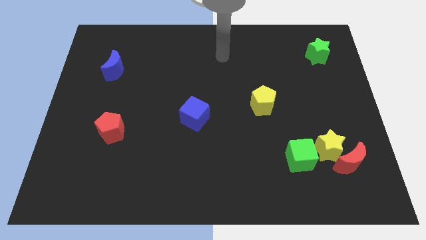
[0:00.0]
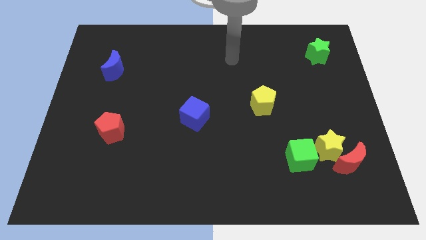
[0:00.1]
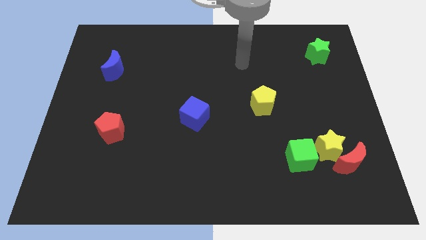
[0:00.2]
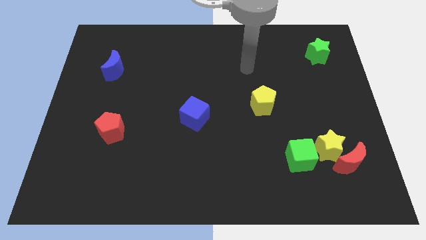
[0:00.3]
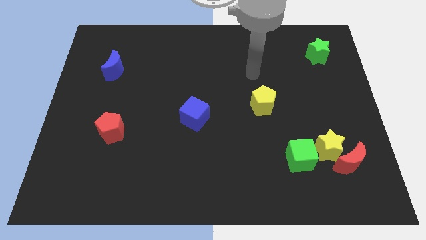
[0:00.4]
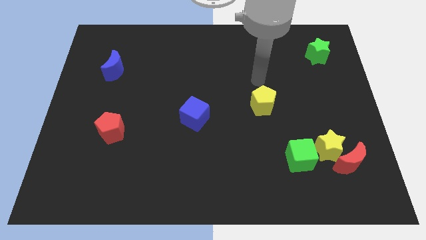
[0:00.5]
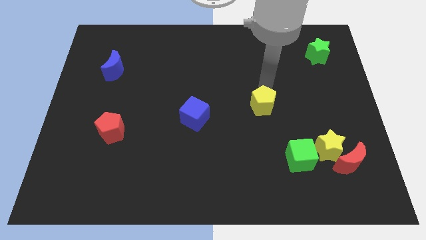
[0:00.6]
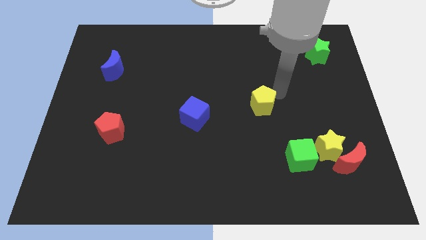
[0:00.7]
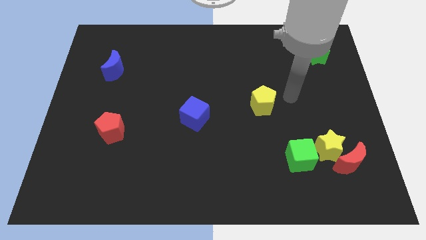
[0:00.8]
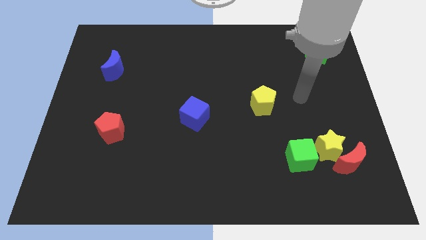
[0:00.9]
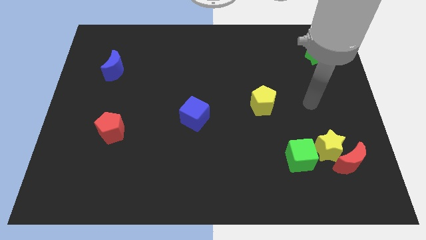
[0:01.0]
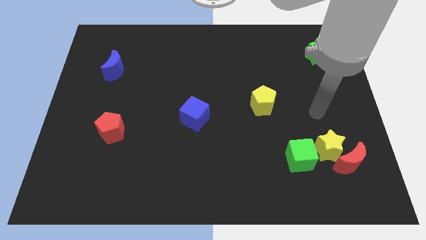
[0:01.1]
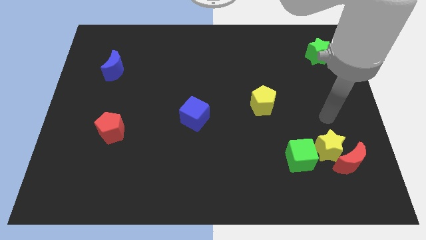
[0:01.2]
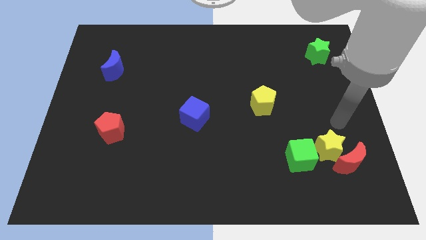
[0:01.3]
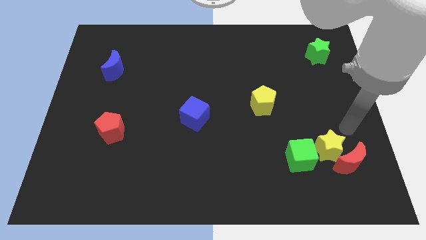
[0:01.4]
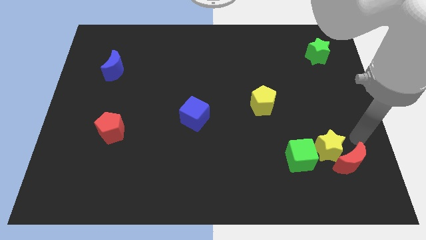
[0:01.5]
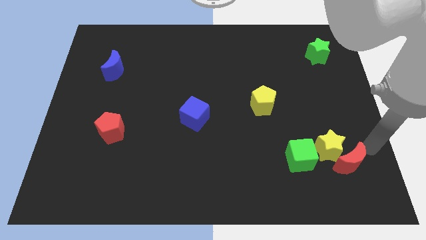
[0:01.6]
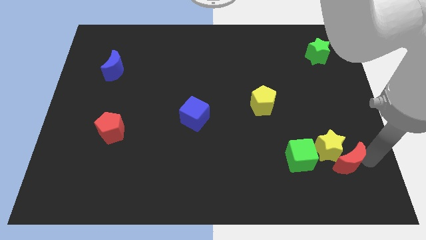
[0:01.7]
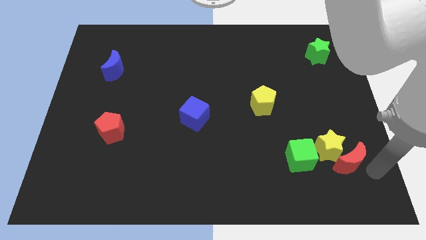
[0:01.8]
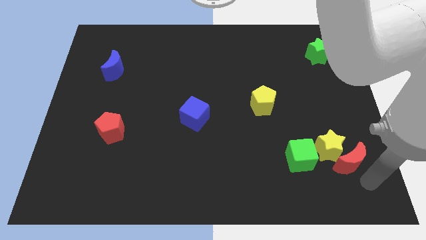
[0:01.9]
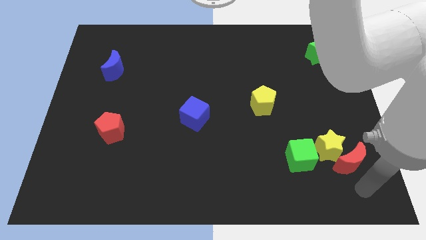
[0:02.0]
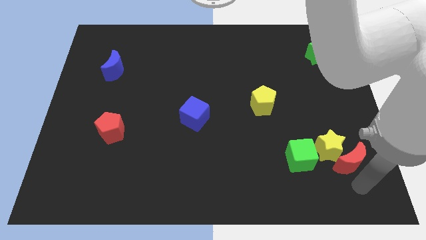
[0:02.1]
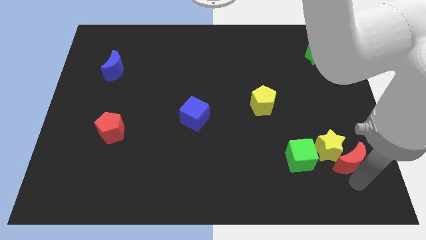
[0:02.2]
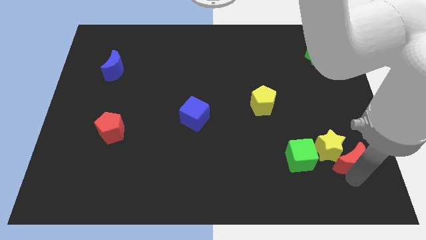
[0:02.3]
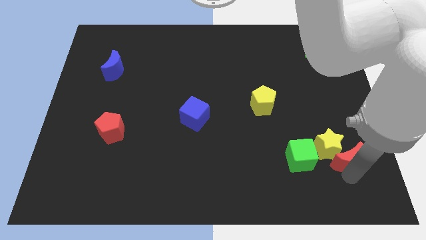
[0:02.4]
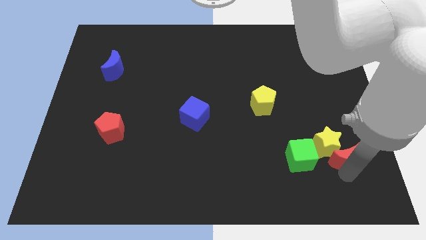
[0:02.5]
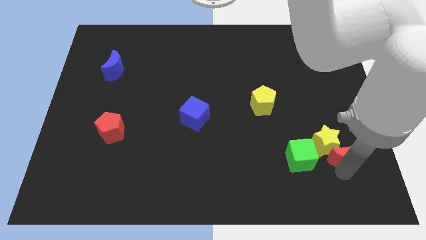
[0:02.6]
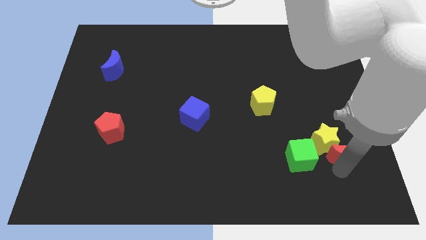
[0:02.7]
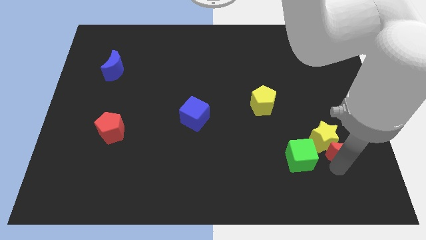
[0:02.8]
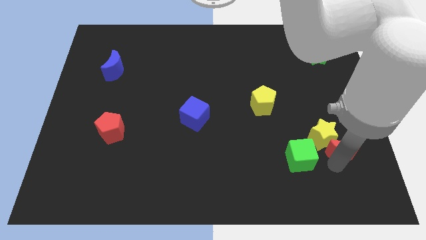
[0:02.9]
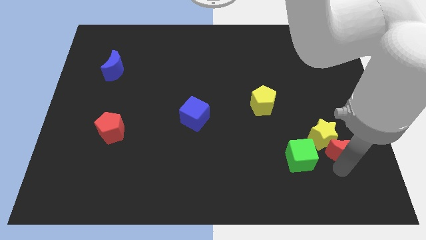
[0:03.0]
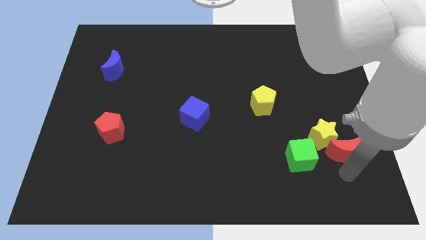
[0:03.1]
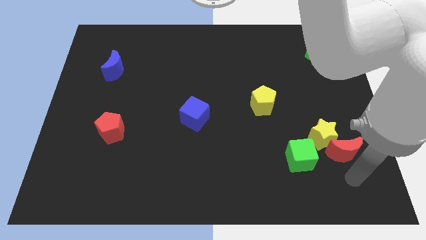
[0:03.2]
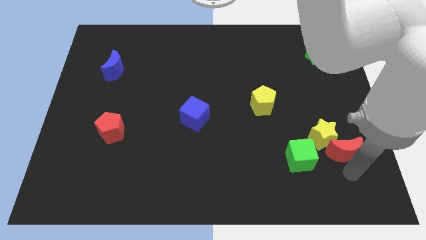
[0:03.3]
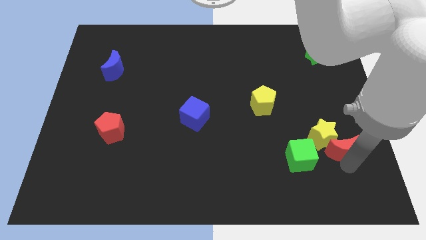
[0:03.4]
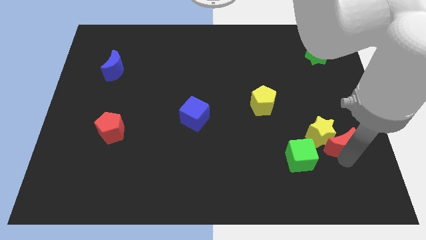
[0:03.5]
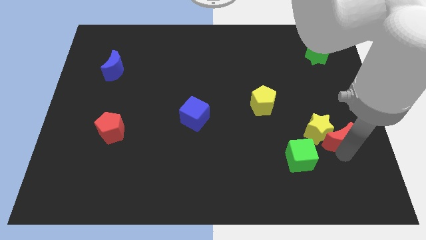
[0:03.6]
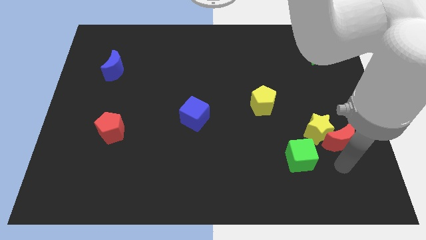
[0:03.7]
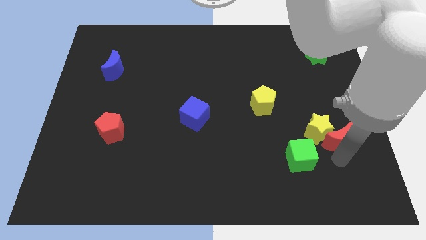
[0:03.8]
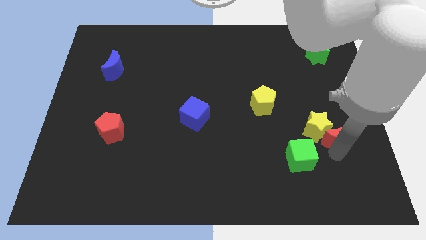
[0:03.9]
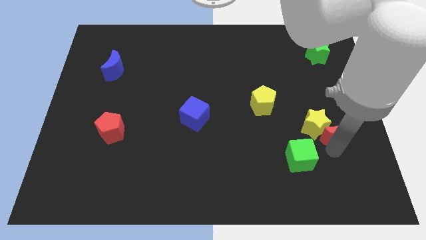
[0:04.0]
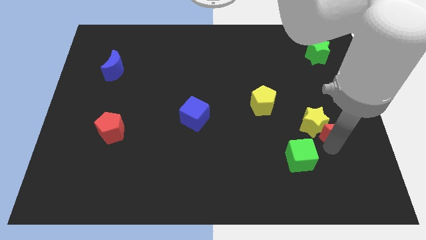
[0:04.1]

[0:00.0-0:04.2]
slide the red moon upwards a little bit

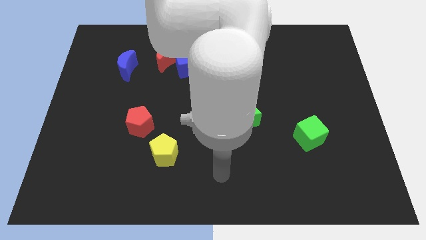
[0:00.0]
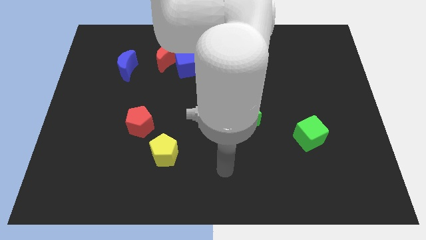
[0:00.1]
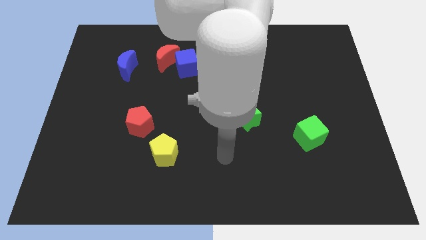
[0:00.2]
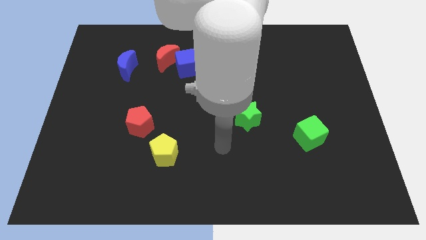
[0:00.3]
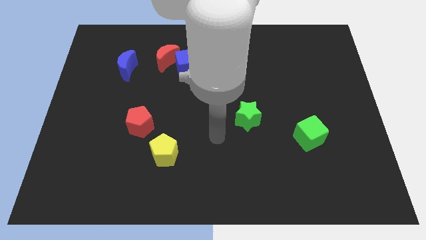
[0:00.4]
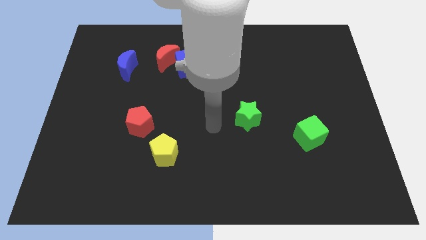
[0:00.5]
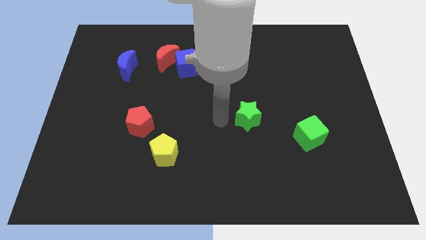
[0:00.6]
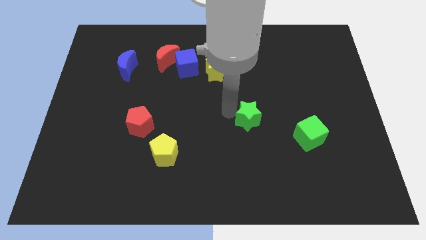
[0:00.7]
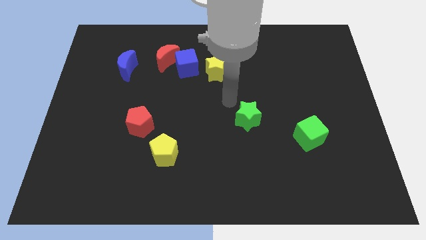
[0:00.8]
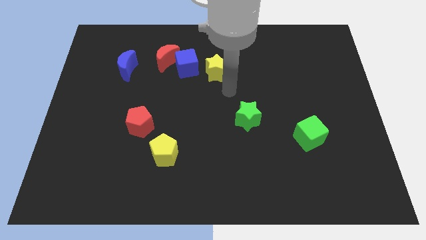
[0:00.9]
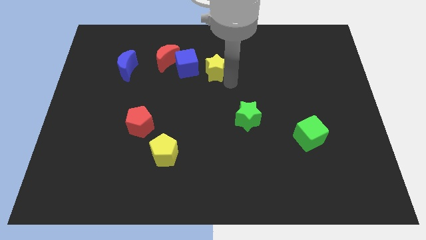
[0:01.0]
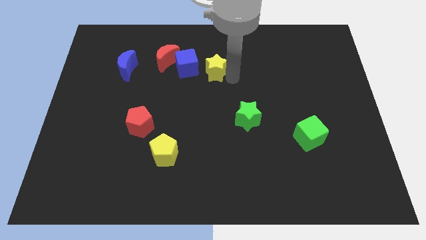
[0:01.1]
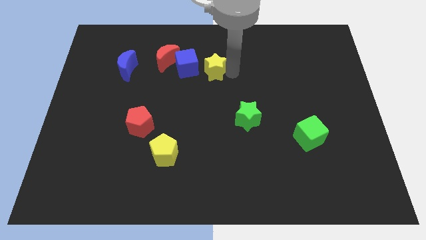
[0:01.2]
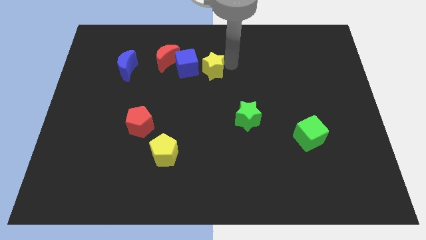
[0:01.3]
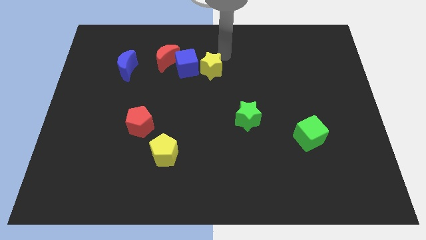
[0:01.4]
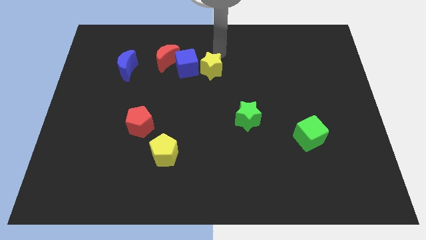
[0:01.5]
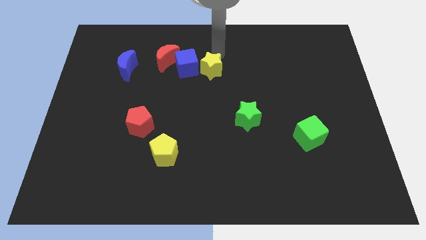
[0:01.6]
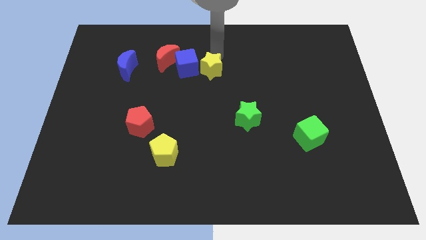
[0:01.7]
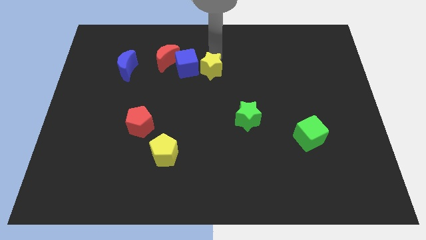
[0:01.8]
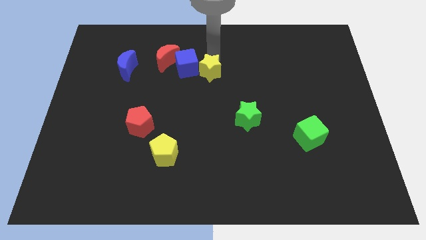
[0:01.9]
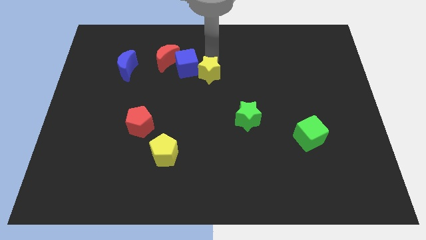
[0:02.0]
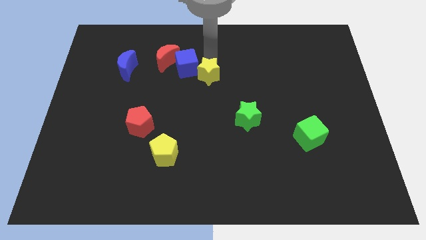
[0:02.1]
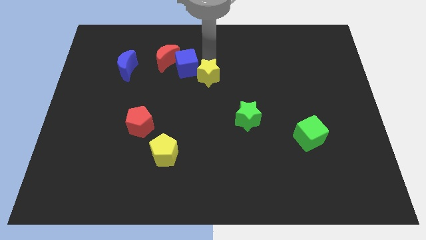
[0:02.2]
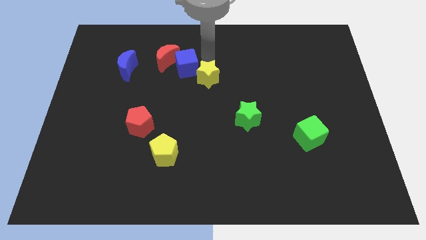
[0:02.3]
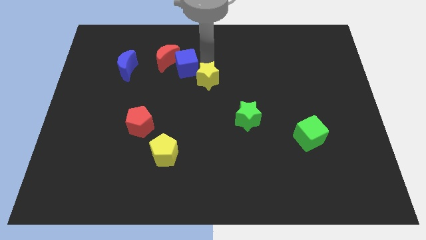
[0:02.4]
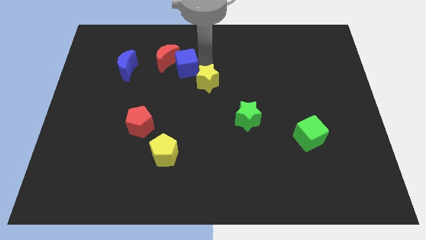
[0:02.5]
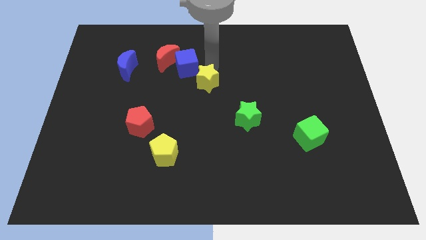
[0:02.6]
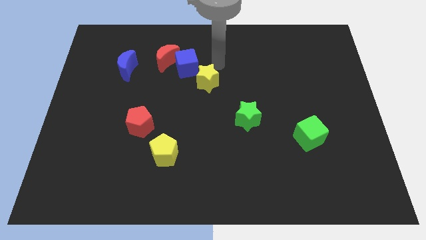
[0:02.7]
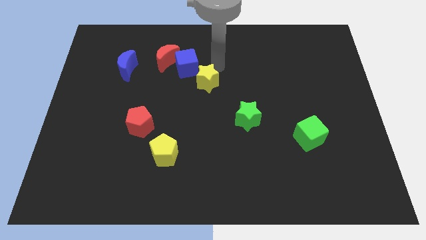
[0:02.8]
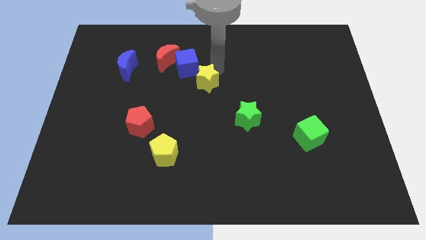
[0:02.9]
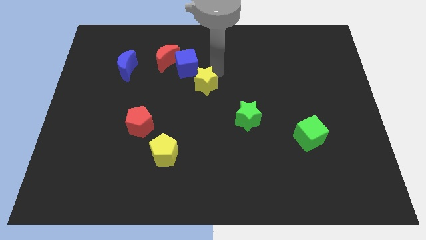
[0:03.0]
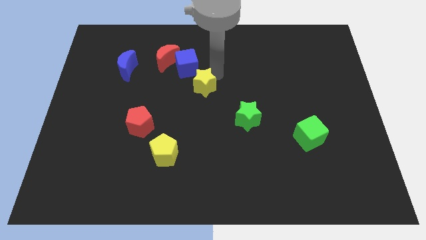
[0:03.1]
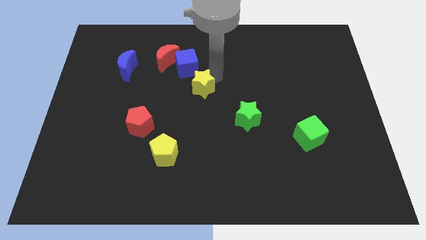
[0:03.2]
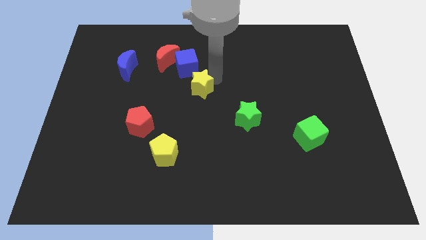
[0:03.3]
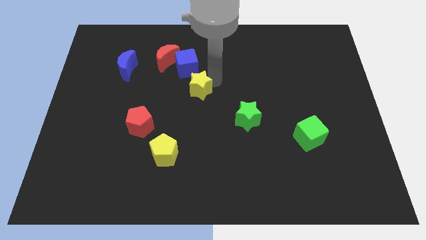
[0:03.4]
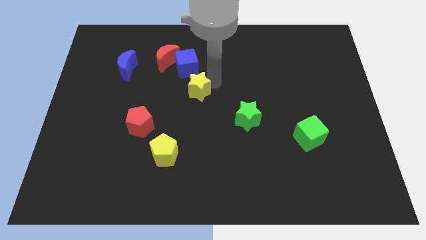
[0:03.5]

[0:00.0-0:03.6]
slightly push the yellow star down and left

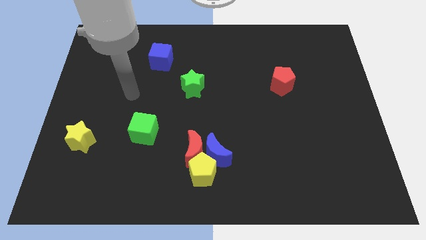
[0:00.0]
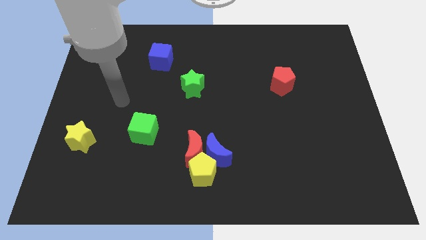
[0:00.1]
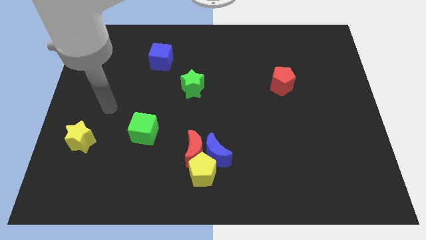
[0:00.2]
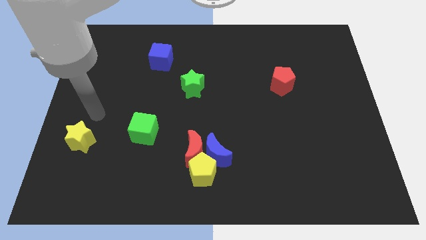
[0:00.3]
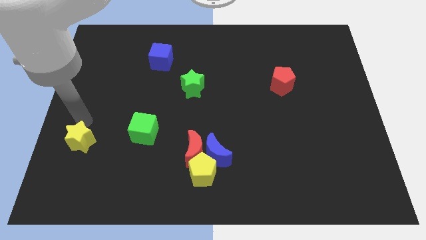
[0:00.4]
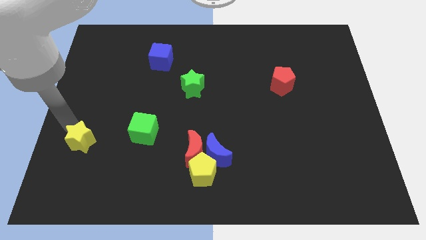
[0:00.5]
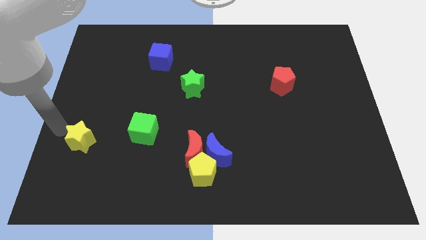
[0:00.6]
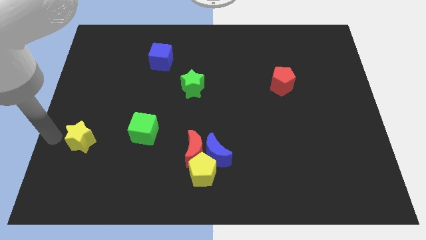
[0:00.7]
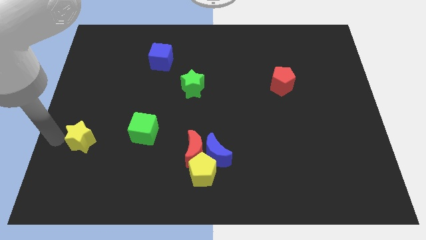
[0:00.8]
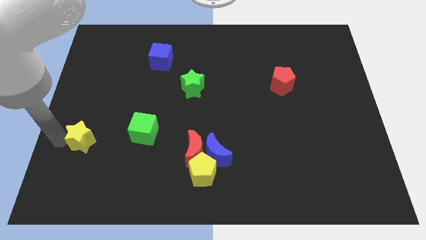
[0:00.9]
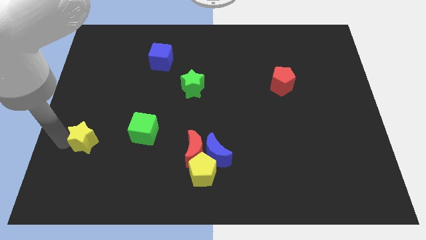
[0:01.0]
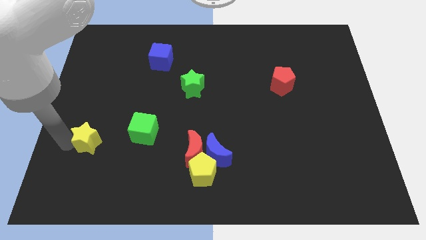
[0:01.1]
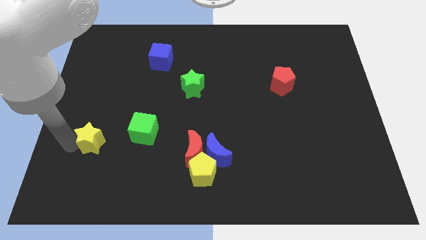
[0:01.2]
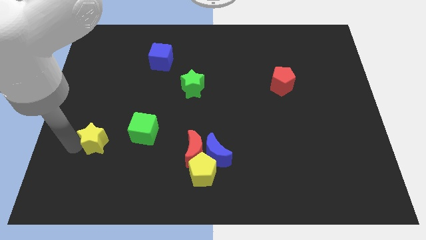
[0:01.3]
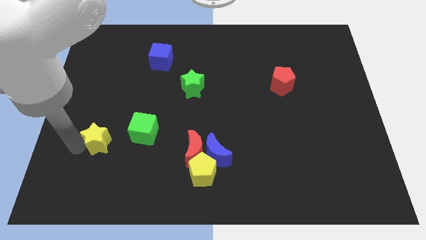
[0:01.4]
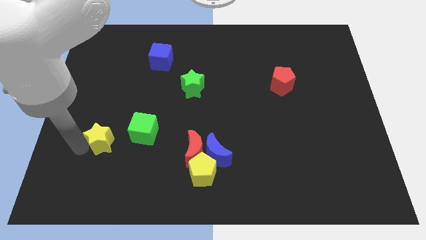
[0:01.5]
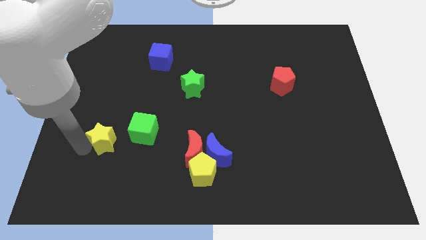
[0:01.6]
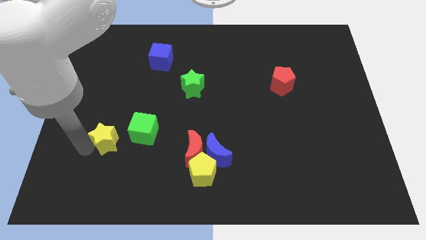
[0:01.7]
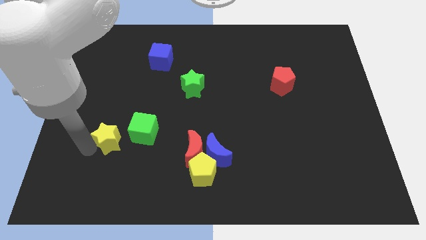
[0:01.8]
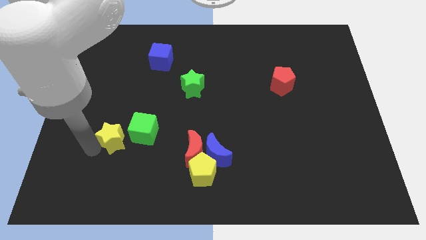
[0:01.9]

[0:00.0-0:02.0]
push the yellow star right somewhat
